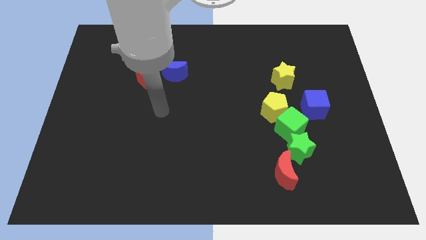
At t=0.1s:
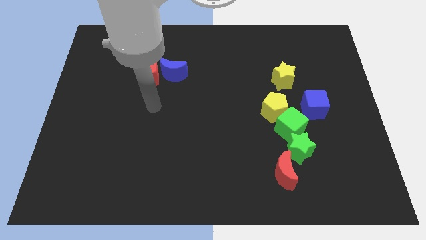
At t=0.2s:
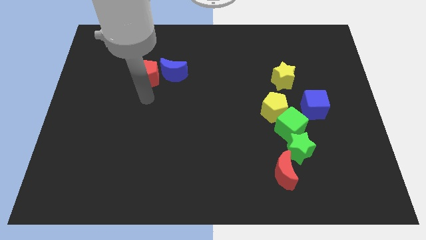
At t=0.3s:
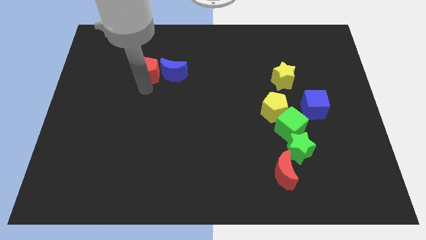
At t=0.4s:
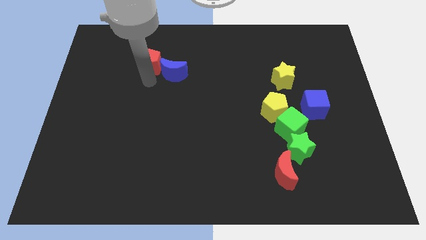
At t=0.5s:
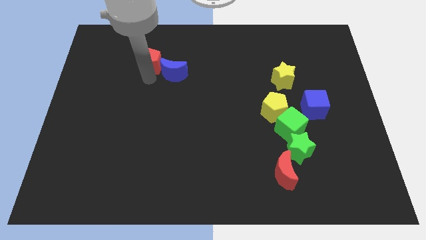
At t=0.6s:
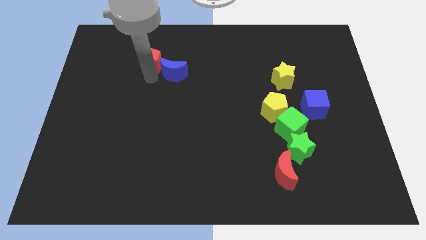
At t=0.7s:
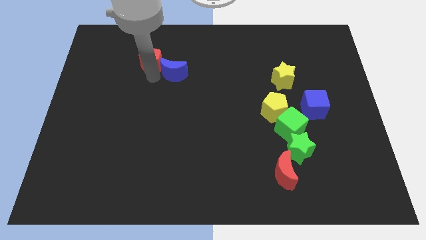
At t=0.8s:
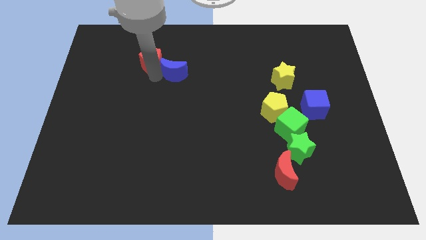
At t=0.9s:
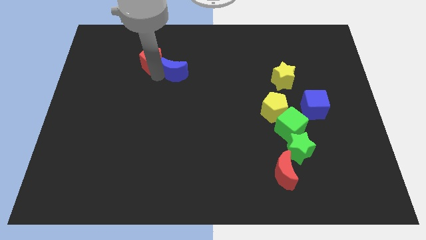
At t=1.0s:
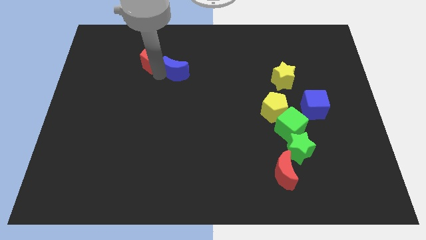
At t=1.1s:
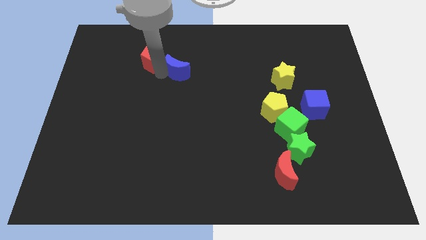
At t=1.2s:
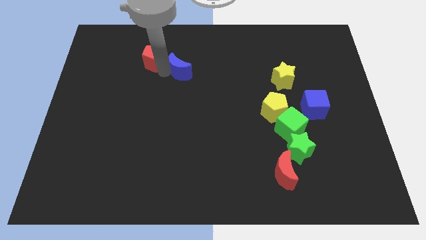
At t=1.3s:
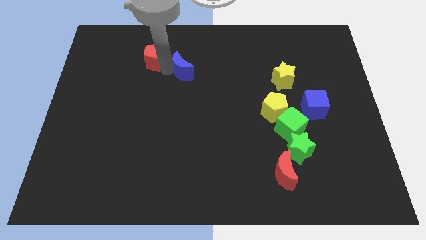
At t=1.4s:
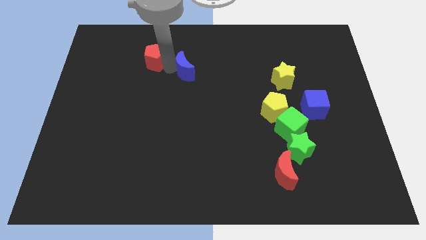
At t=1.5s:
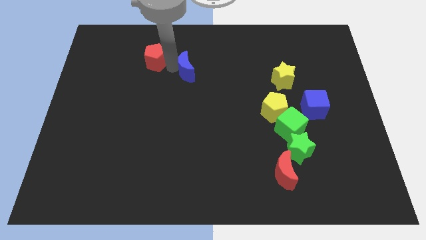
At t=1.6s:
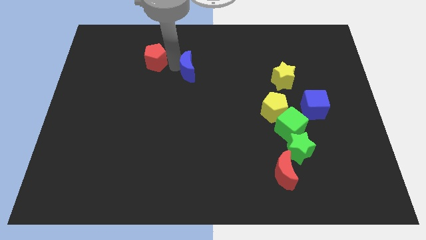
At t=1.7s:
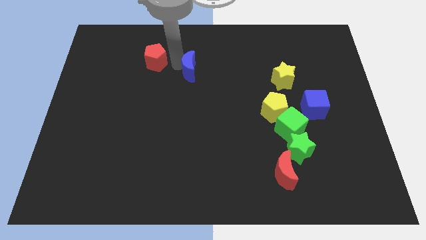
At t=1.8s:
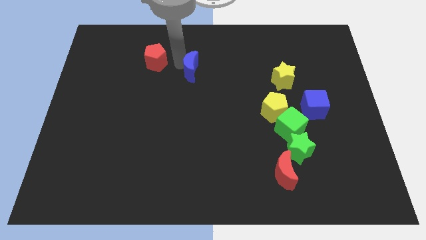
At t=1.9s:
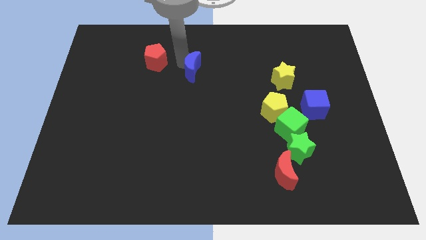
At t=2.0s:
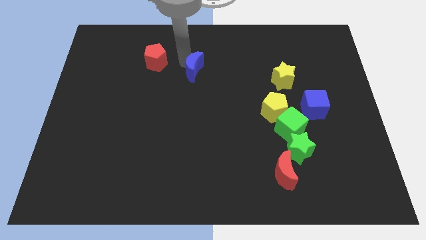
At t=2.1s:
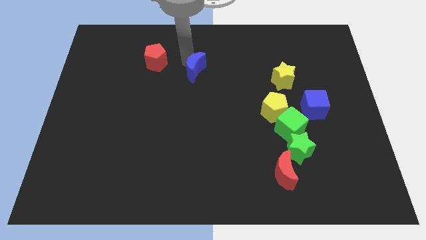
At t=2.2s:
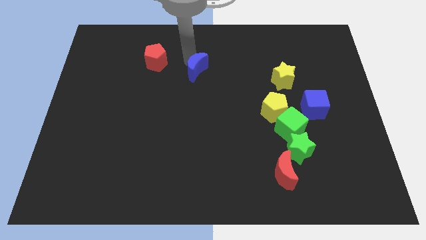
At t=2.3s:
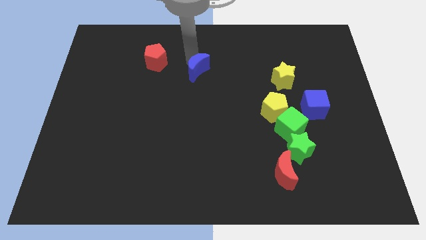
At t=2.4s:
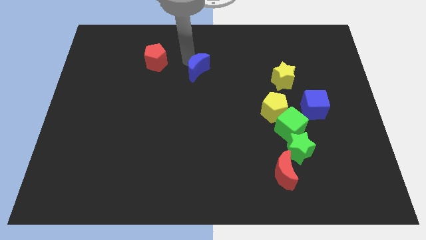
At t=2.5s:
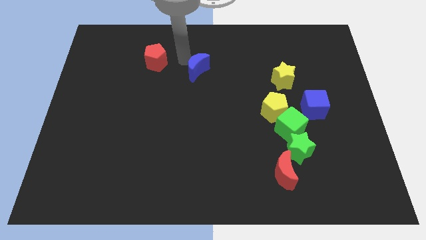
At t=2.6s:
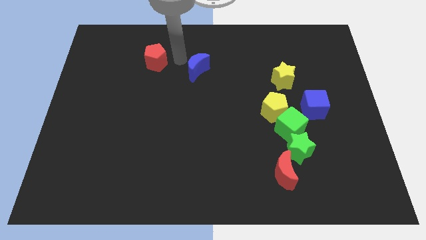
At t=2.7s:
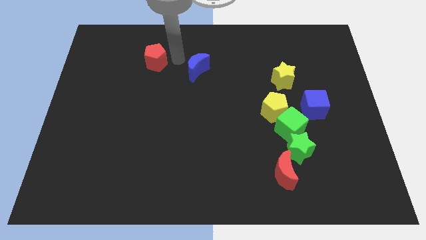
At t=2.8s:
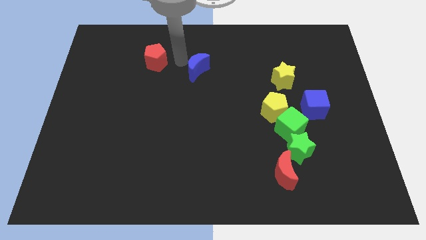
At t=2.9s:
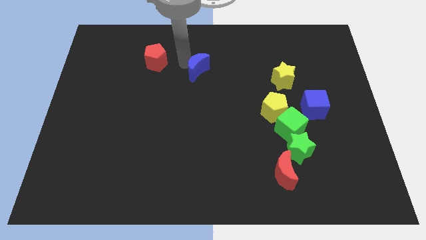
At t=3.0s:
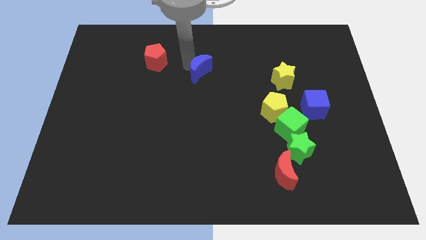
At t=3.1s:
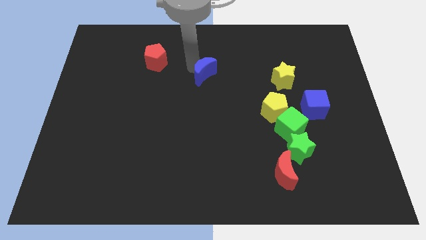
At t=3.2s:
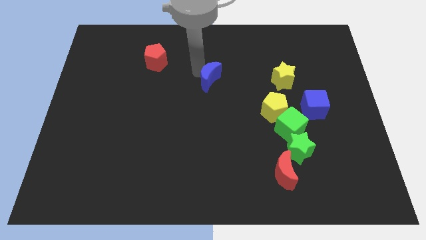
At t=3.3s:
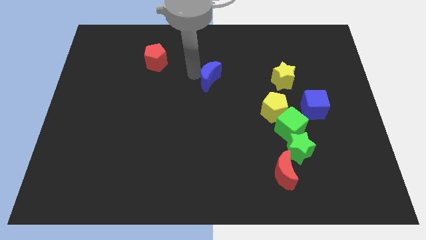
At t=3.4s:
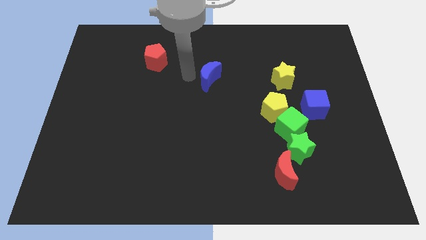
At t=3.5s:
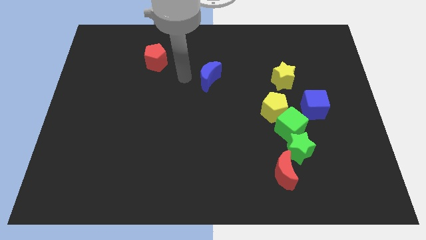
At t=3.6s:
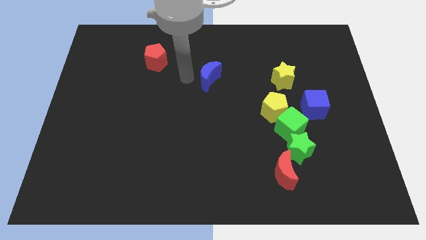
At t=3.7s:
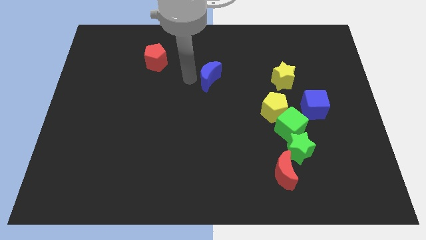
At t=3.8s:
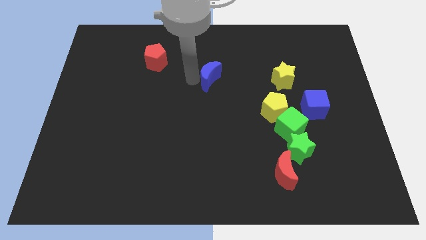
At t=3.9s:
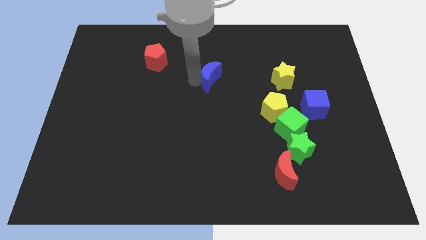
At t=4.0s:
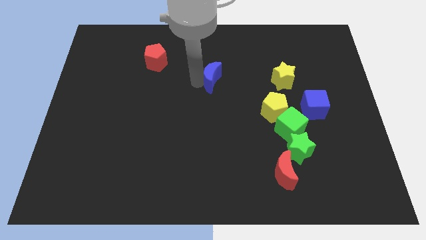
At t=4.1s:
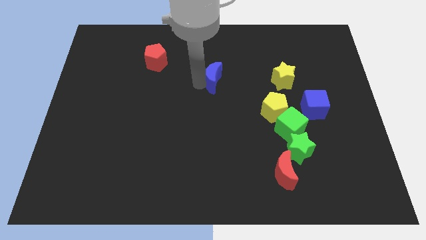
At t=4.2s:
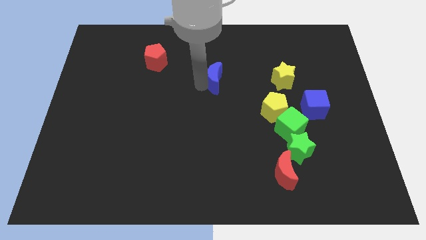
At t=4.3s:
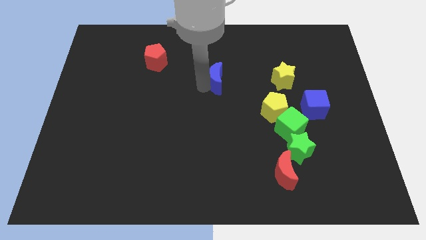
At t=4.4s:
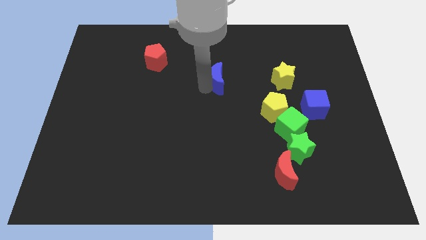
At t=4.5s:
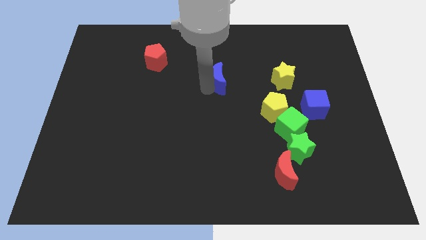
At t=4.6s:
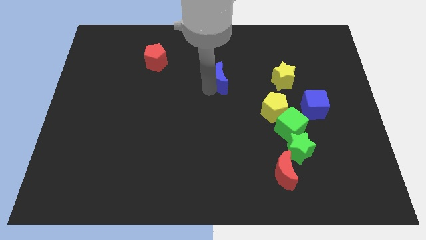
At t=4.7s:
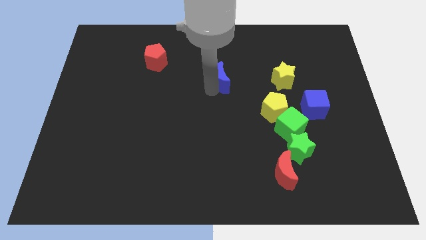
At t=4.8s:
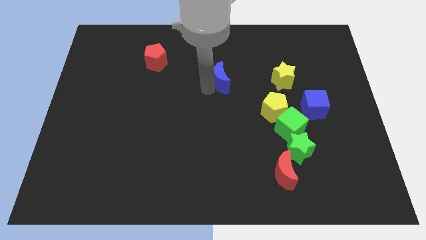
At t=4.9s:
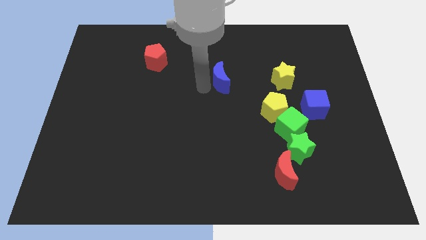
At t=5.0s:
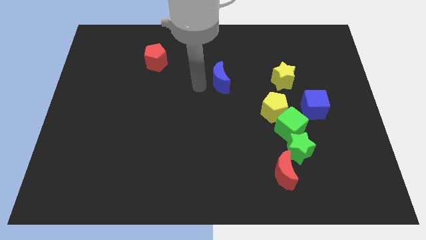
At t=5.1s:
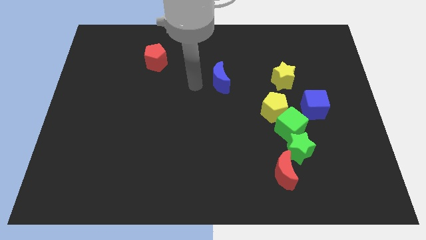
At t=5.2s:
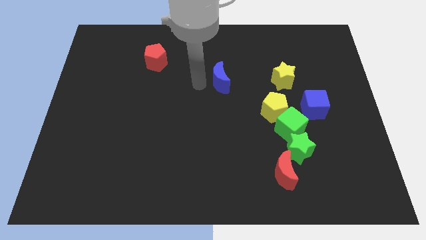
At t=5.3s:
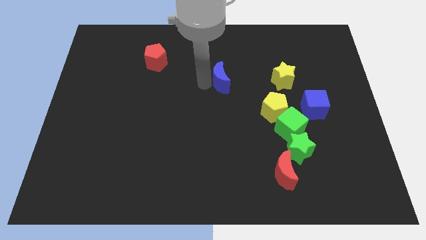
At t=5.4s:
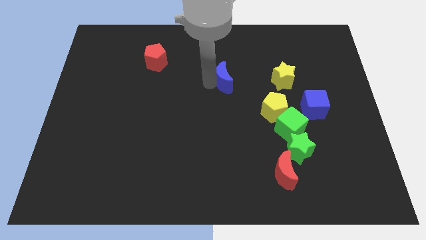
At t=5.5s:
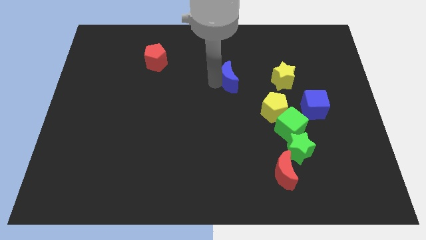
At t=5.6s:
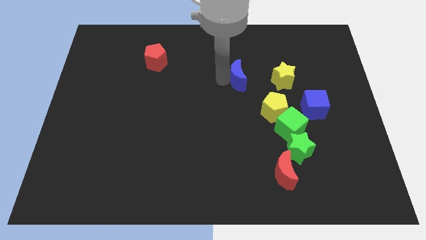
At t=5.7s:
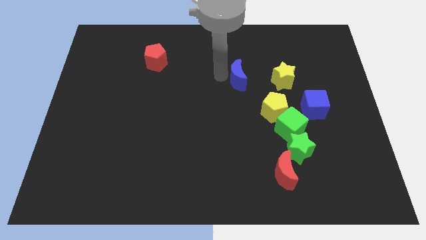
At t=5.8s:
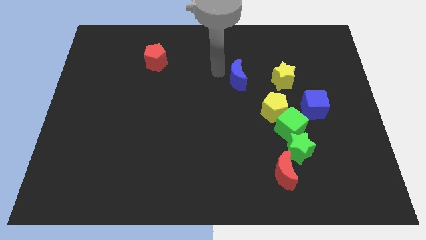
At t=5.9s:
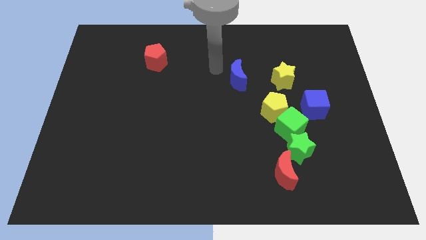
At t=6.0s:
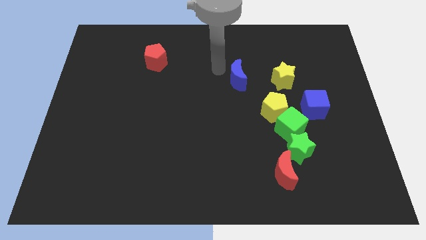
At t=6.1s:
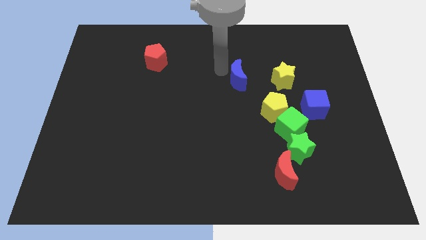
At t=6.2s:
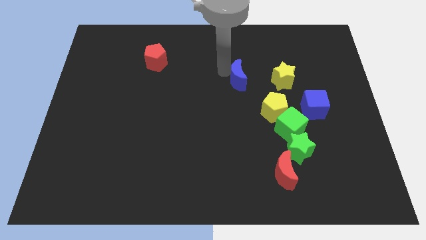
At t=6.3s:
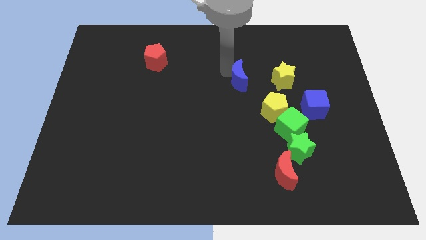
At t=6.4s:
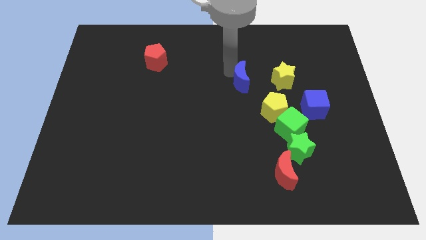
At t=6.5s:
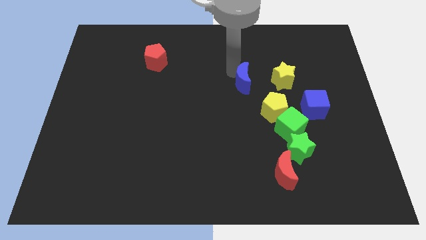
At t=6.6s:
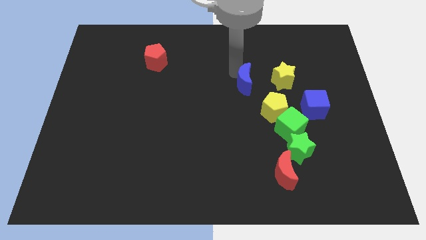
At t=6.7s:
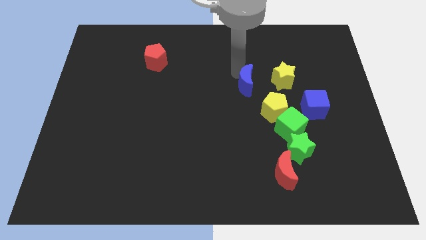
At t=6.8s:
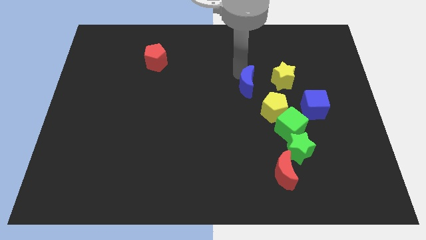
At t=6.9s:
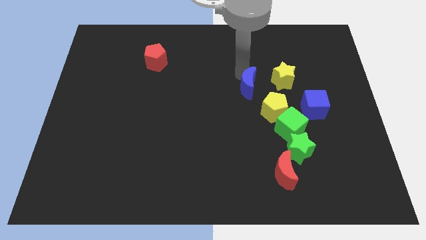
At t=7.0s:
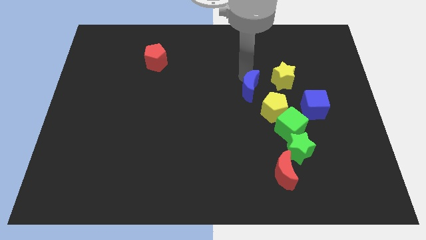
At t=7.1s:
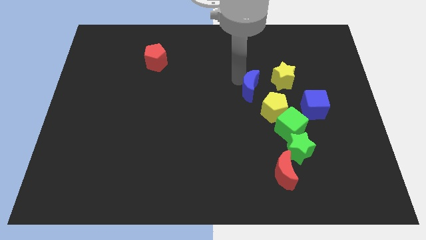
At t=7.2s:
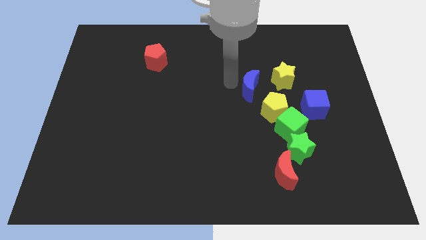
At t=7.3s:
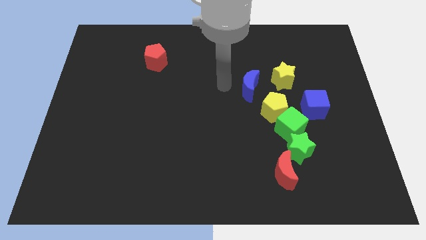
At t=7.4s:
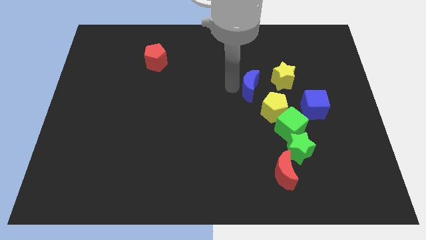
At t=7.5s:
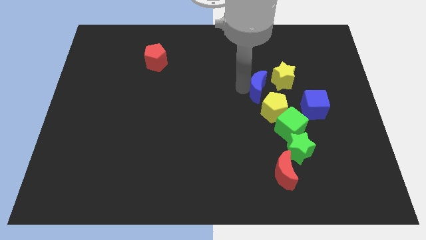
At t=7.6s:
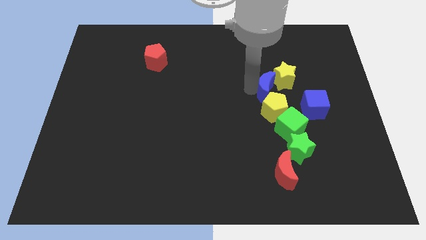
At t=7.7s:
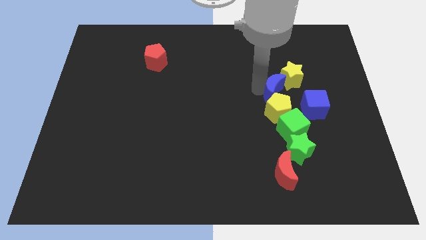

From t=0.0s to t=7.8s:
put the blue moon diagonally up and to the left of the blue cube
